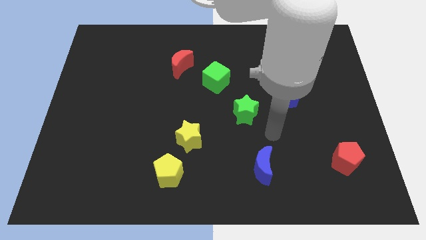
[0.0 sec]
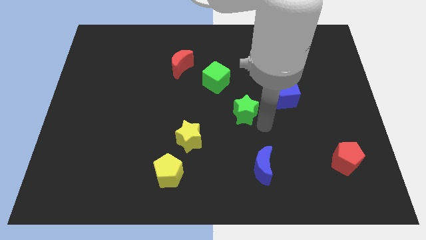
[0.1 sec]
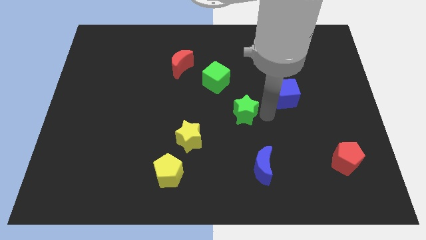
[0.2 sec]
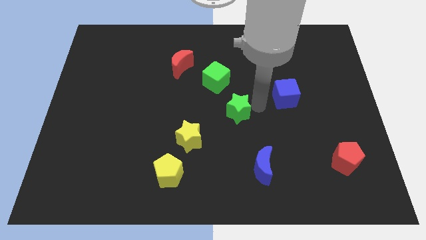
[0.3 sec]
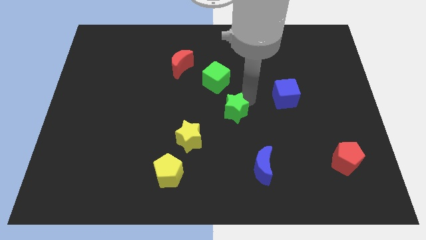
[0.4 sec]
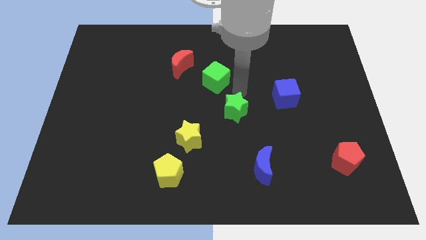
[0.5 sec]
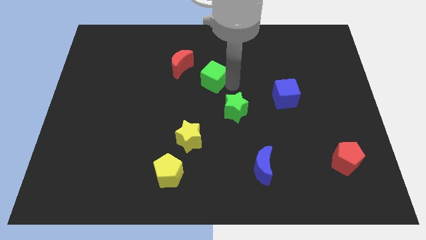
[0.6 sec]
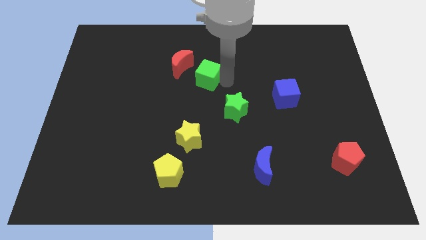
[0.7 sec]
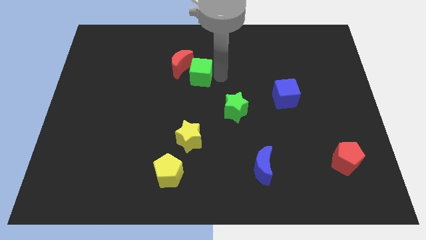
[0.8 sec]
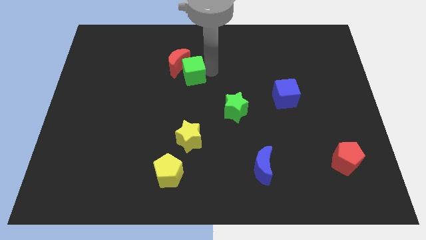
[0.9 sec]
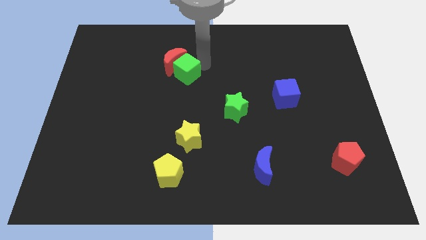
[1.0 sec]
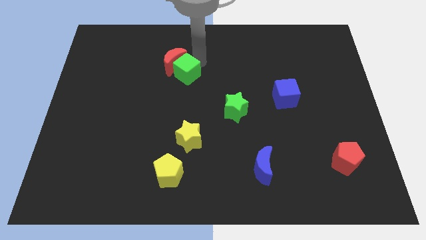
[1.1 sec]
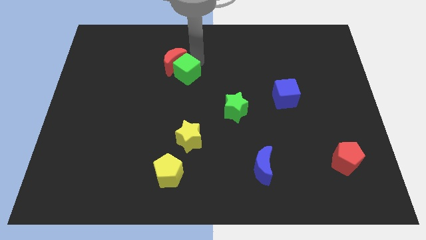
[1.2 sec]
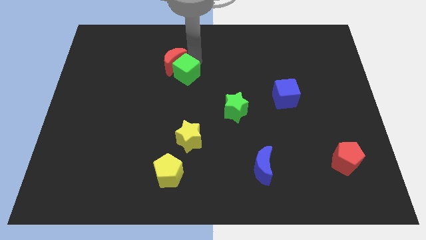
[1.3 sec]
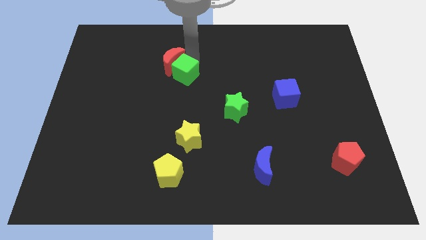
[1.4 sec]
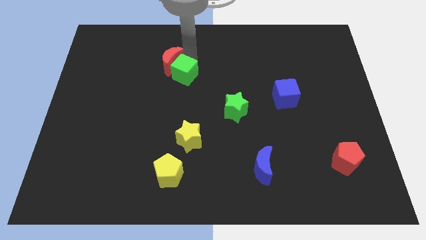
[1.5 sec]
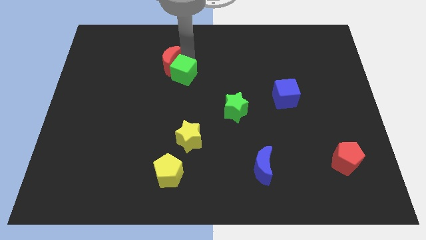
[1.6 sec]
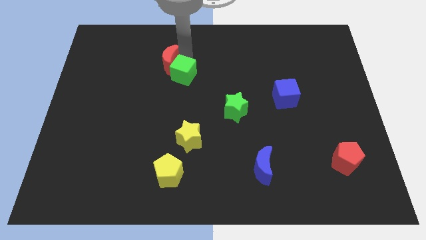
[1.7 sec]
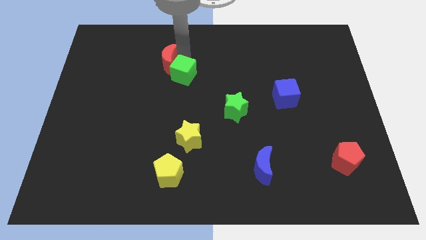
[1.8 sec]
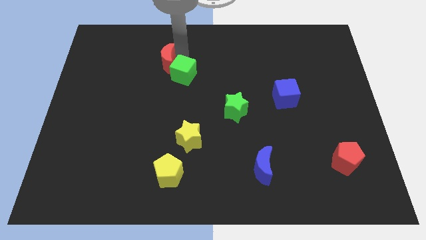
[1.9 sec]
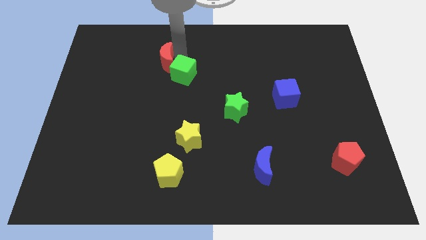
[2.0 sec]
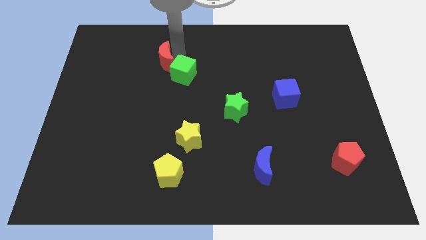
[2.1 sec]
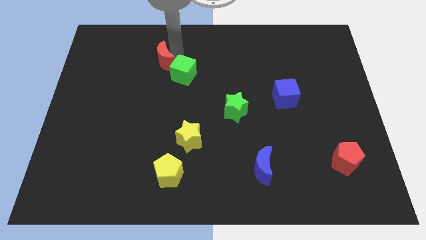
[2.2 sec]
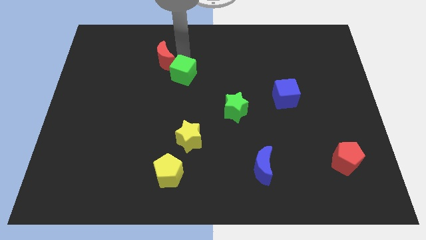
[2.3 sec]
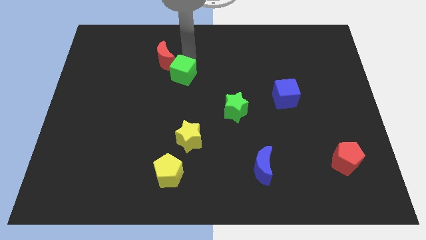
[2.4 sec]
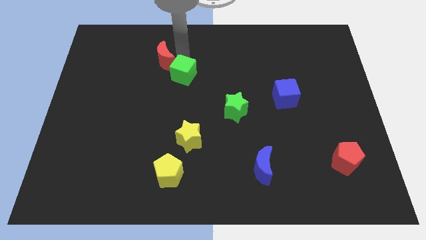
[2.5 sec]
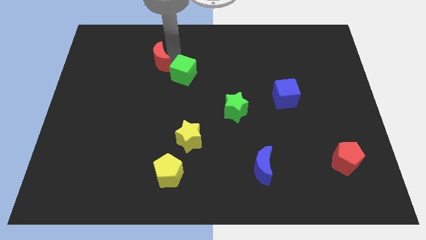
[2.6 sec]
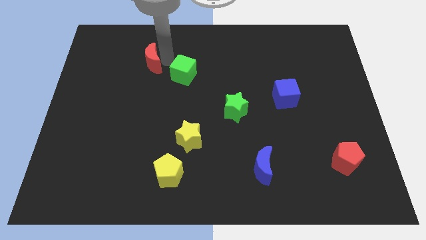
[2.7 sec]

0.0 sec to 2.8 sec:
slightly move the red moon to the left

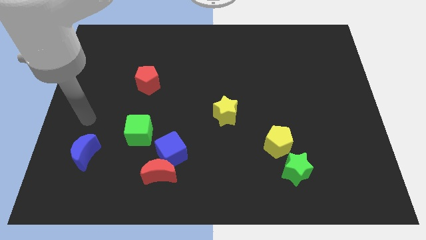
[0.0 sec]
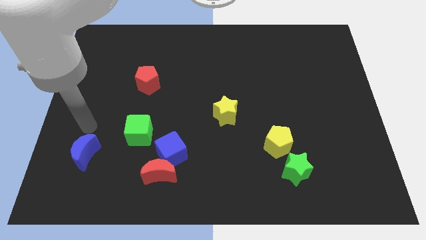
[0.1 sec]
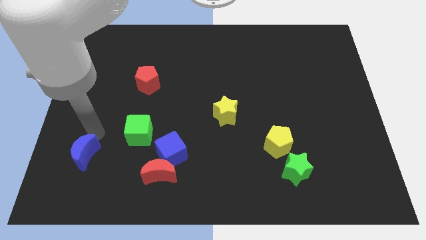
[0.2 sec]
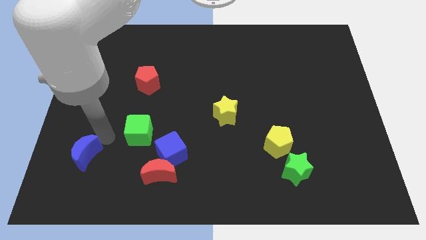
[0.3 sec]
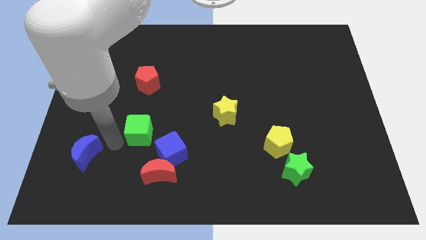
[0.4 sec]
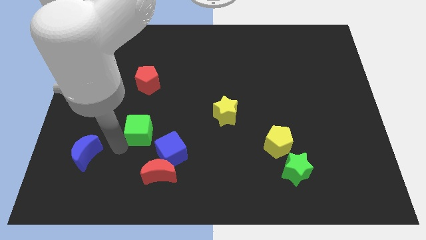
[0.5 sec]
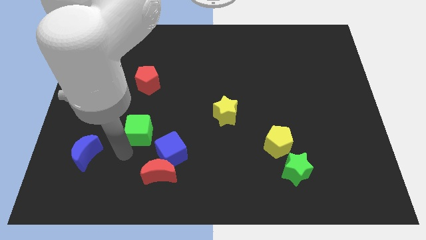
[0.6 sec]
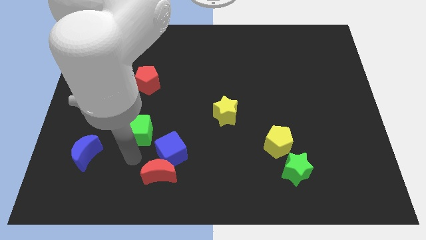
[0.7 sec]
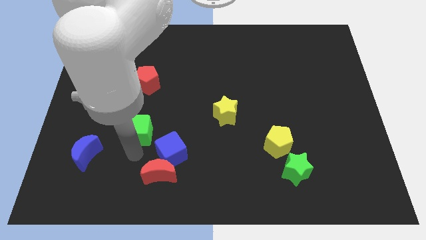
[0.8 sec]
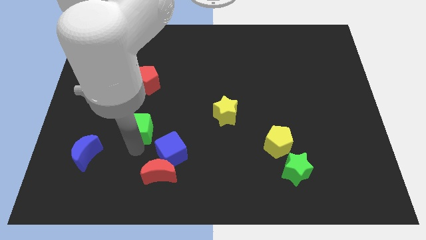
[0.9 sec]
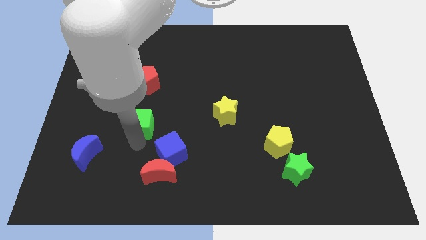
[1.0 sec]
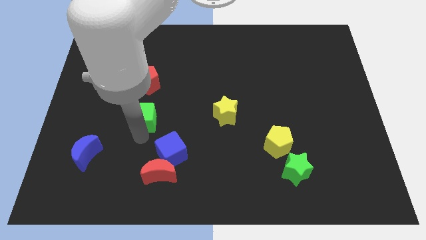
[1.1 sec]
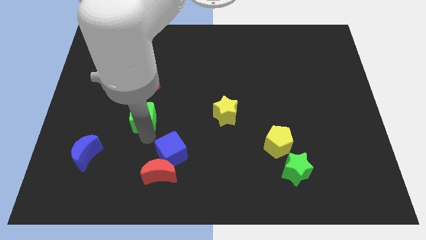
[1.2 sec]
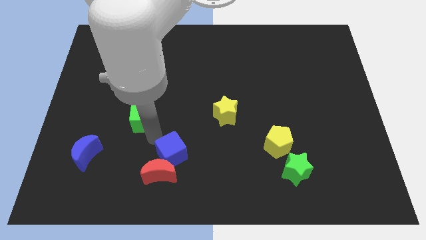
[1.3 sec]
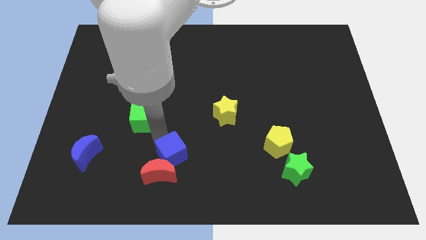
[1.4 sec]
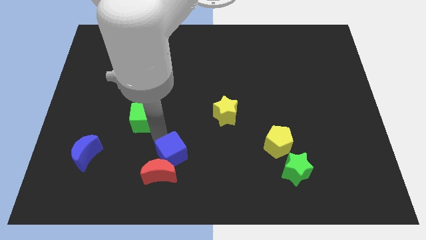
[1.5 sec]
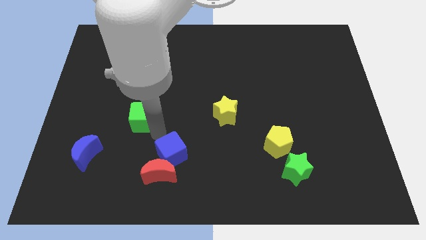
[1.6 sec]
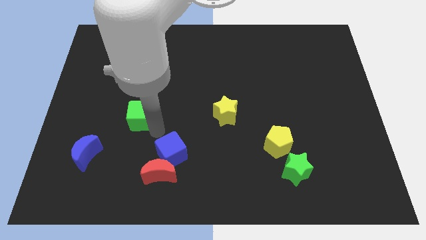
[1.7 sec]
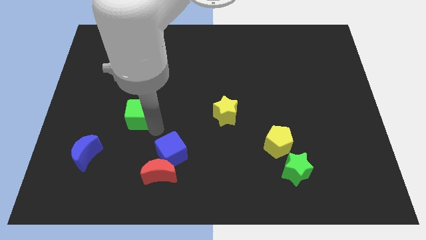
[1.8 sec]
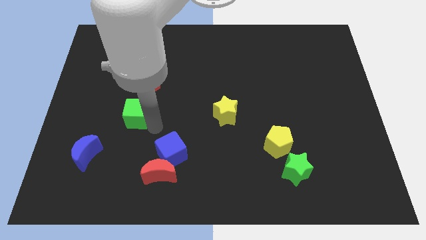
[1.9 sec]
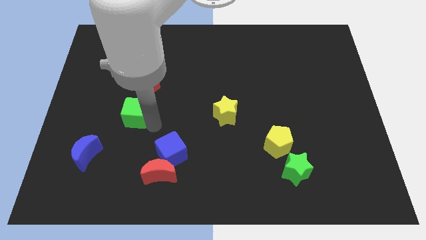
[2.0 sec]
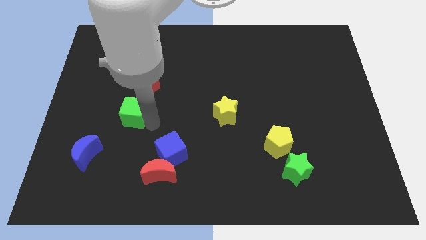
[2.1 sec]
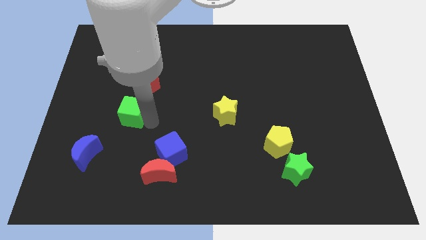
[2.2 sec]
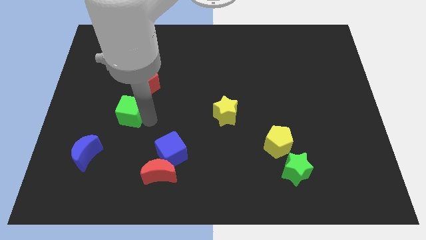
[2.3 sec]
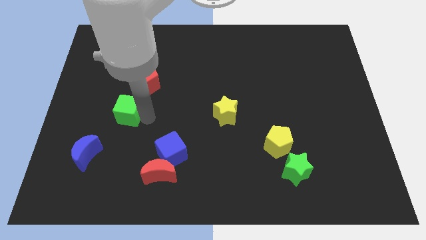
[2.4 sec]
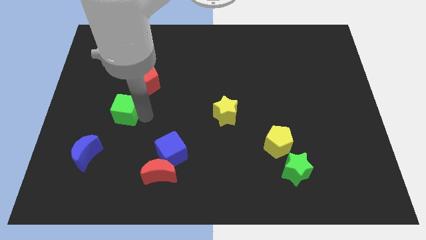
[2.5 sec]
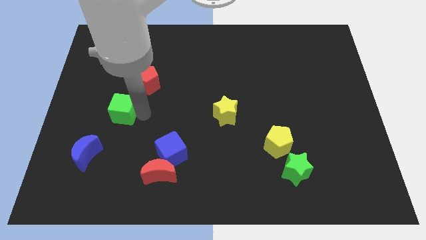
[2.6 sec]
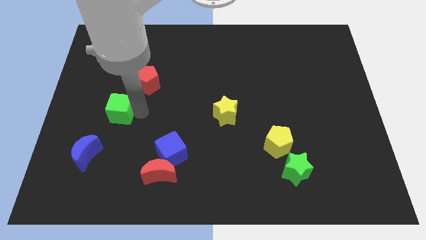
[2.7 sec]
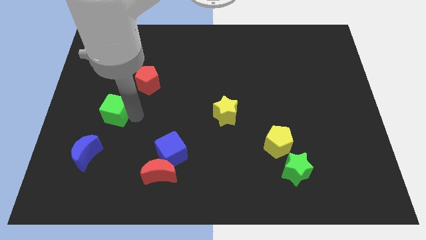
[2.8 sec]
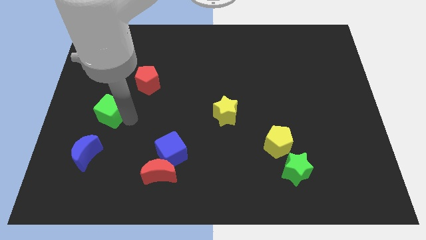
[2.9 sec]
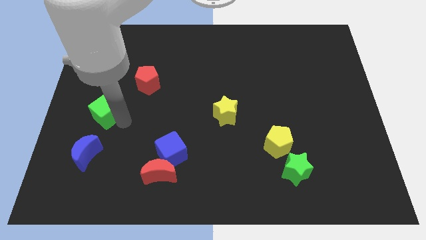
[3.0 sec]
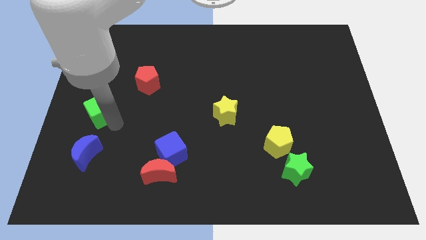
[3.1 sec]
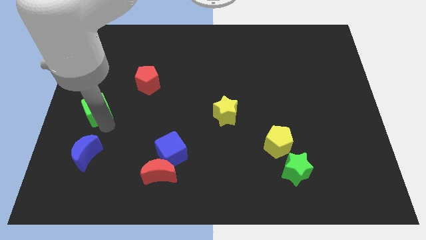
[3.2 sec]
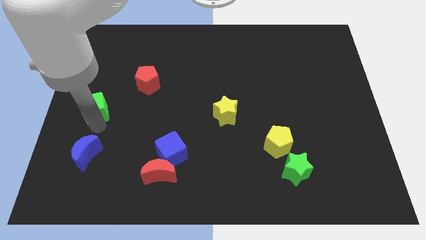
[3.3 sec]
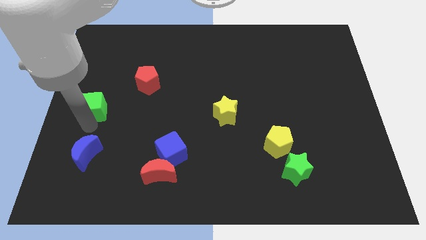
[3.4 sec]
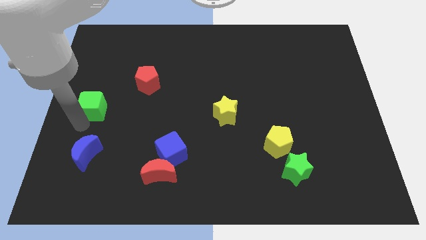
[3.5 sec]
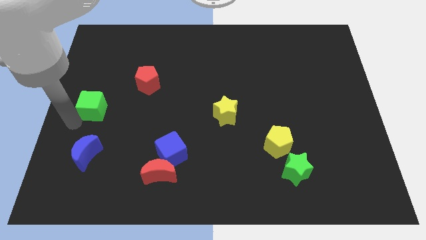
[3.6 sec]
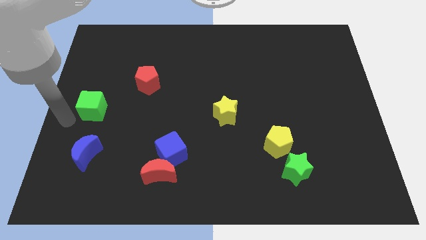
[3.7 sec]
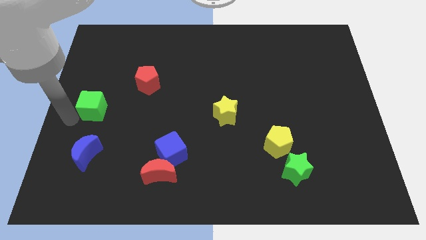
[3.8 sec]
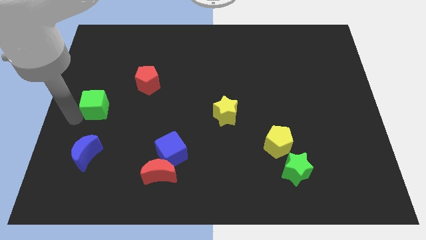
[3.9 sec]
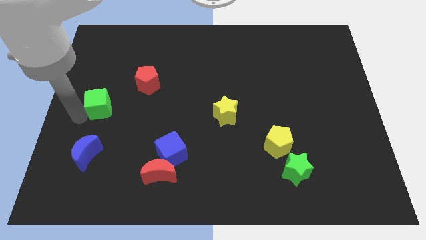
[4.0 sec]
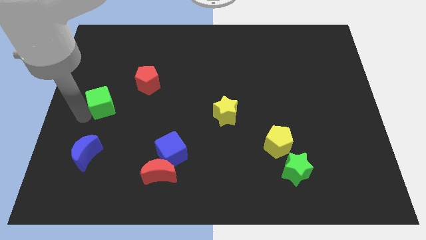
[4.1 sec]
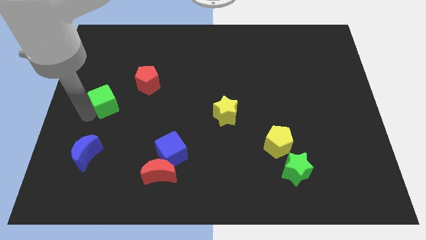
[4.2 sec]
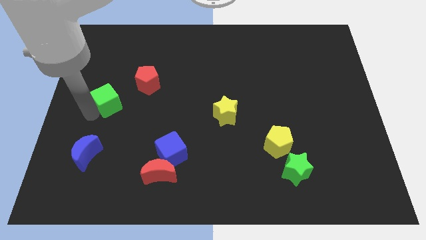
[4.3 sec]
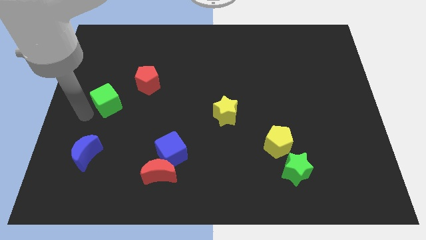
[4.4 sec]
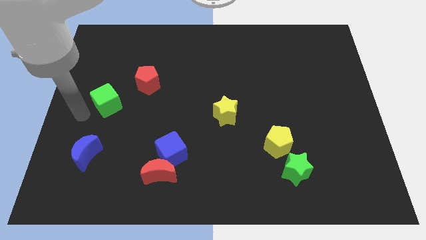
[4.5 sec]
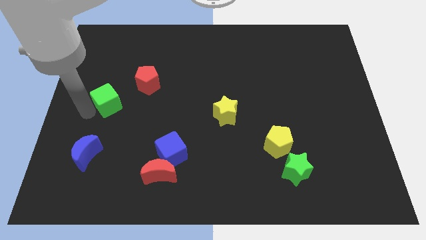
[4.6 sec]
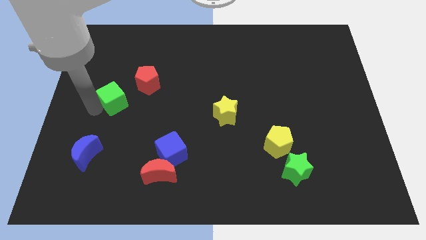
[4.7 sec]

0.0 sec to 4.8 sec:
slightly move the green cube up
